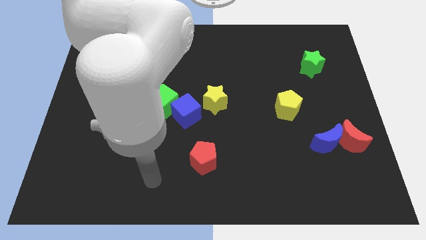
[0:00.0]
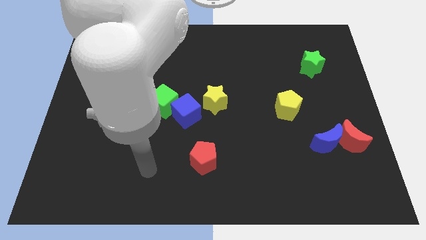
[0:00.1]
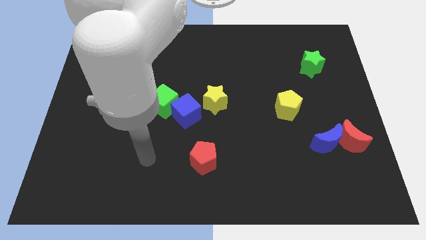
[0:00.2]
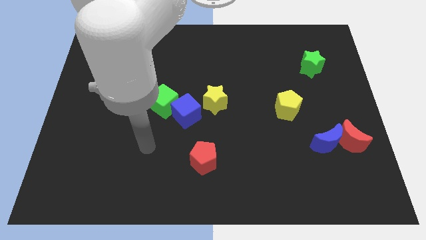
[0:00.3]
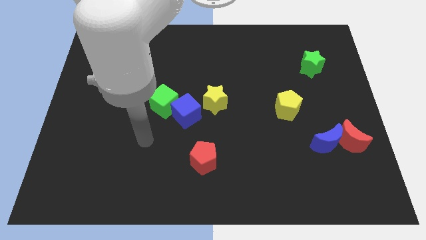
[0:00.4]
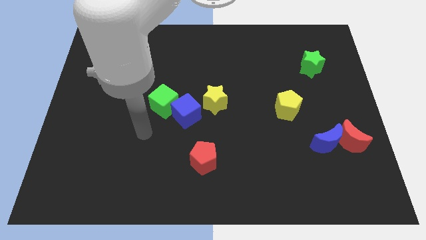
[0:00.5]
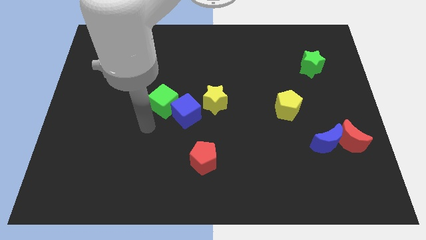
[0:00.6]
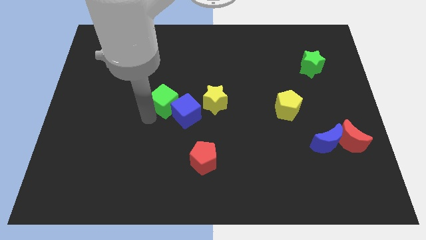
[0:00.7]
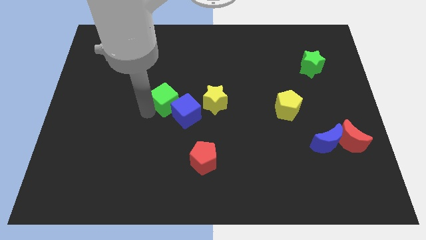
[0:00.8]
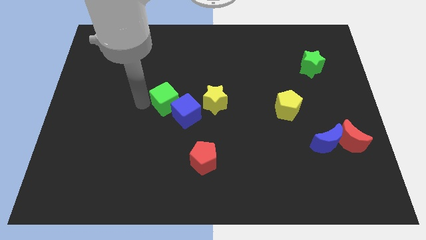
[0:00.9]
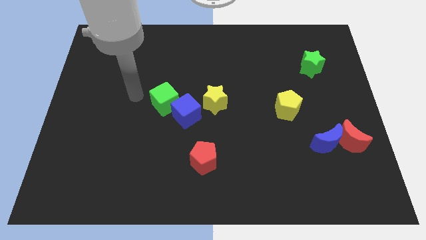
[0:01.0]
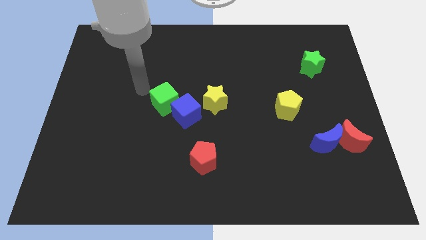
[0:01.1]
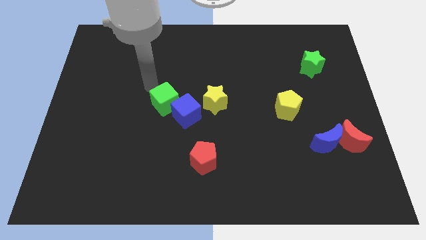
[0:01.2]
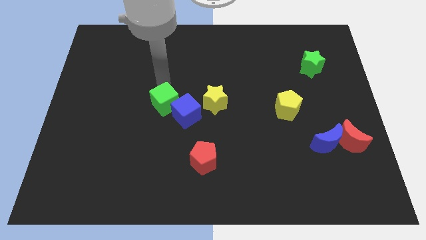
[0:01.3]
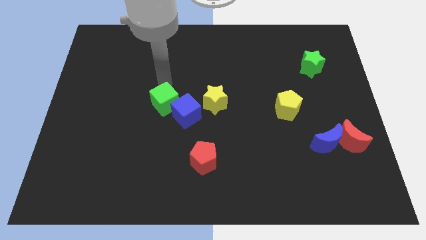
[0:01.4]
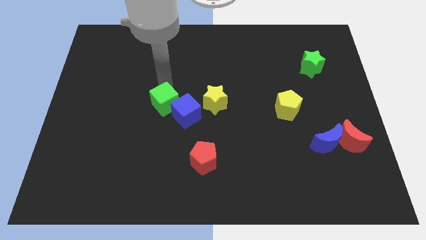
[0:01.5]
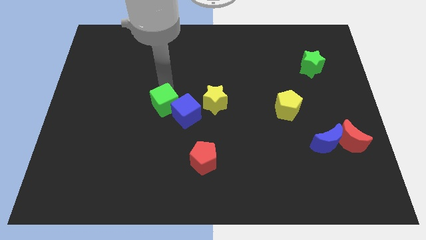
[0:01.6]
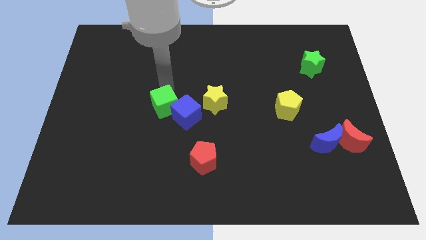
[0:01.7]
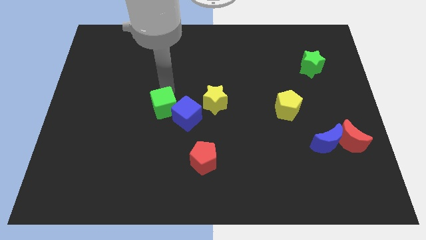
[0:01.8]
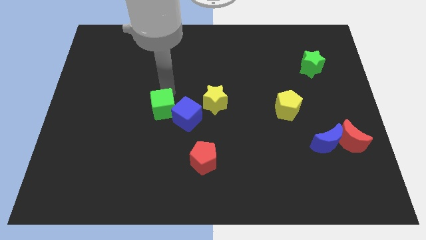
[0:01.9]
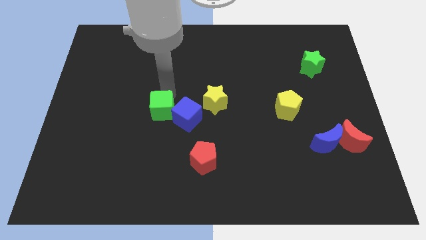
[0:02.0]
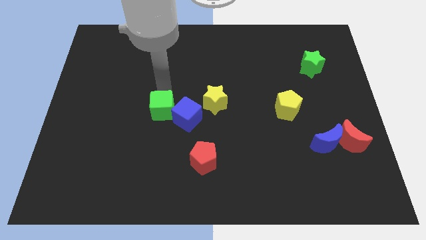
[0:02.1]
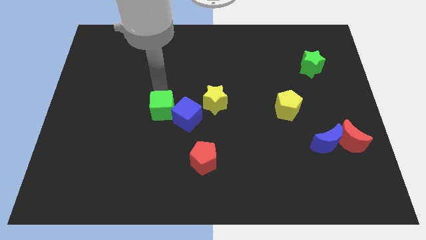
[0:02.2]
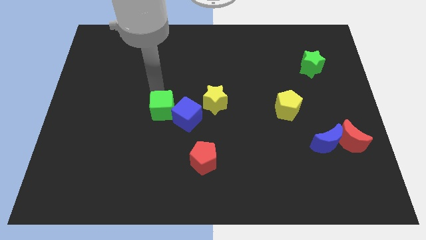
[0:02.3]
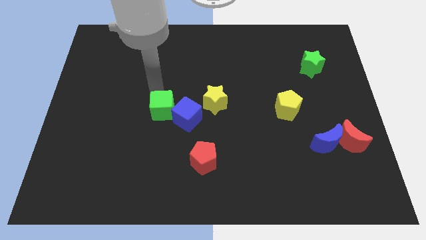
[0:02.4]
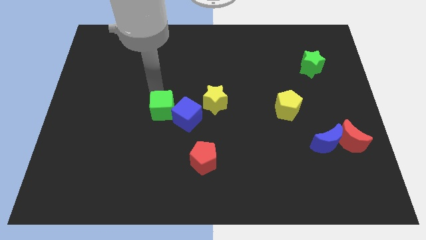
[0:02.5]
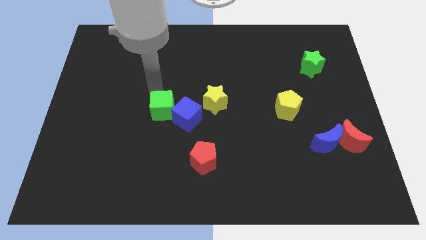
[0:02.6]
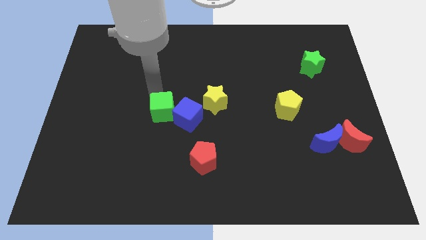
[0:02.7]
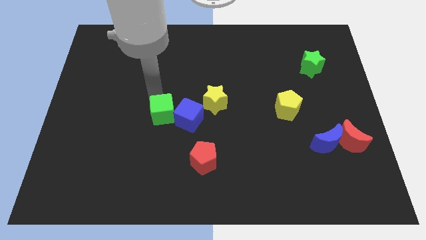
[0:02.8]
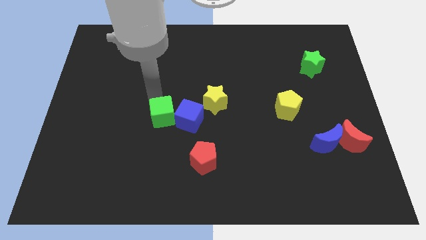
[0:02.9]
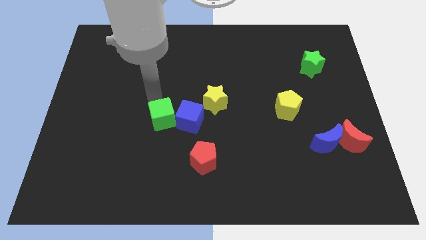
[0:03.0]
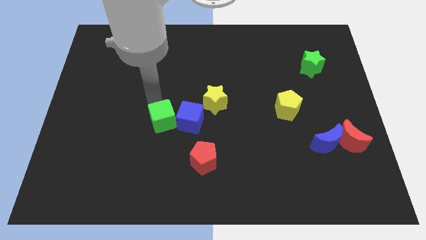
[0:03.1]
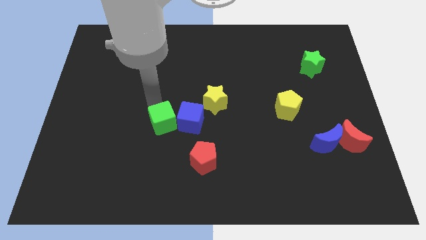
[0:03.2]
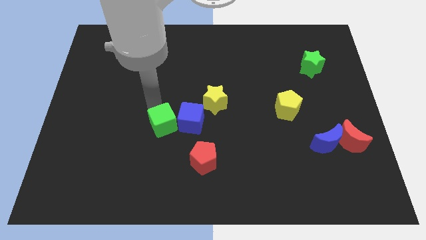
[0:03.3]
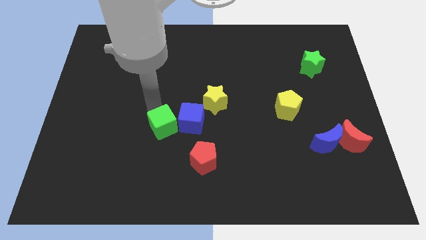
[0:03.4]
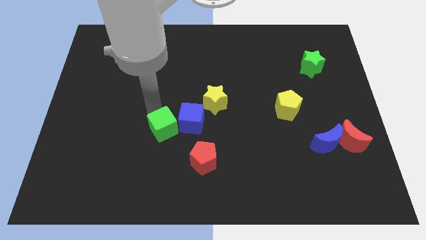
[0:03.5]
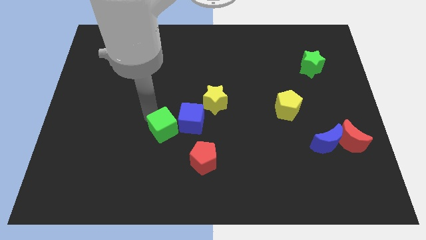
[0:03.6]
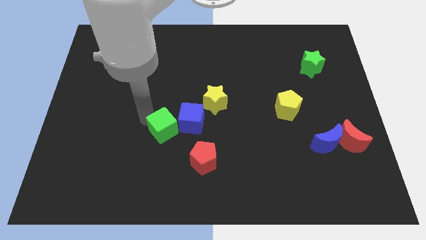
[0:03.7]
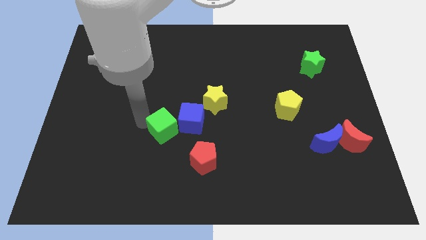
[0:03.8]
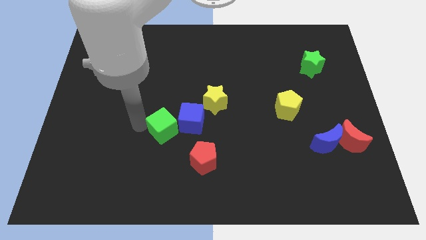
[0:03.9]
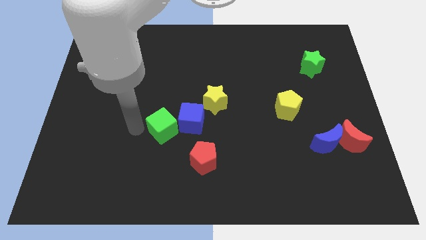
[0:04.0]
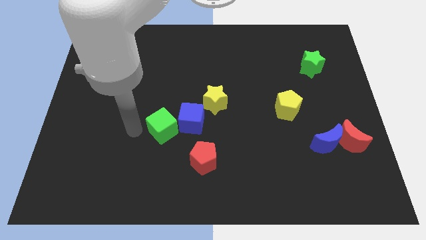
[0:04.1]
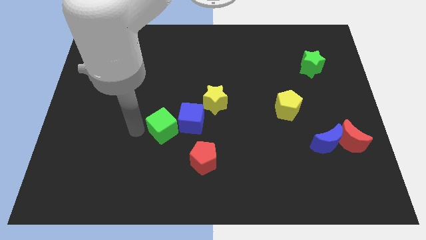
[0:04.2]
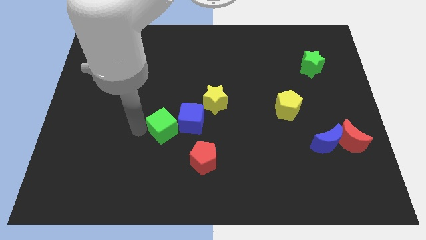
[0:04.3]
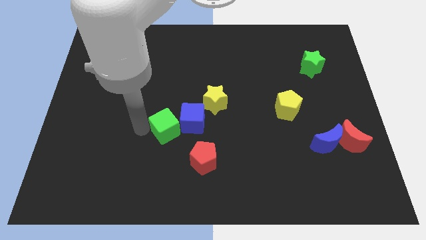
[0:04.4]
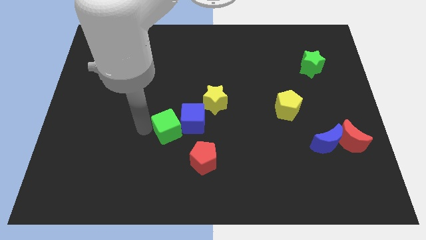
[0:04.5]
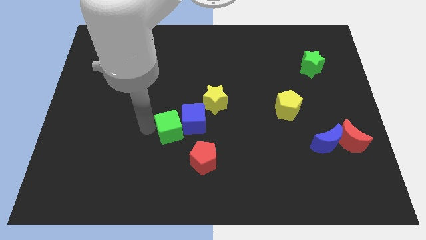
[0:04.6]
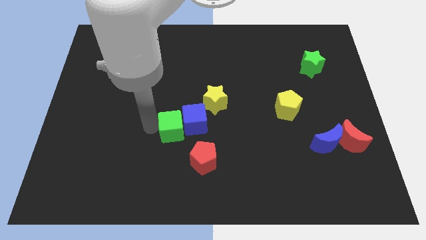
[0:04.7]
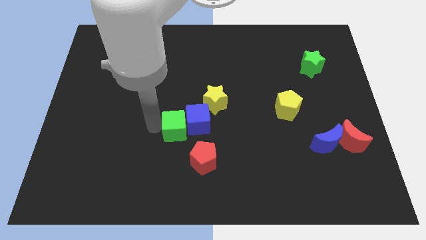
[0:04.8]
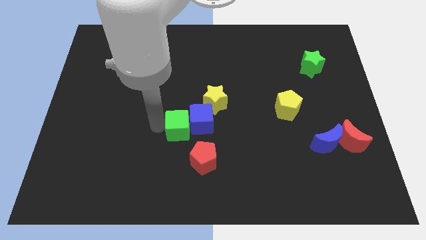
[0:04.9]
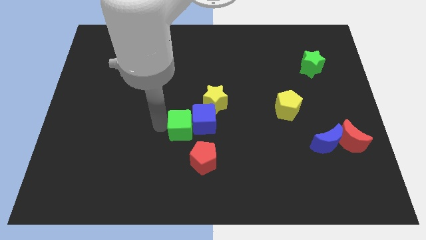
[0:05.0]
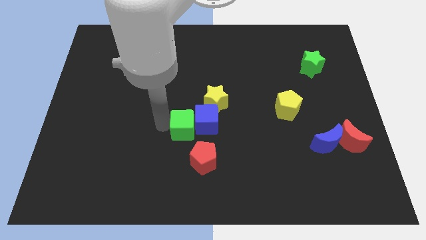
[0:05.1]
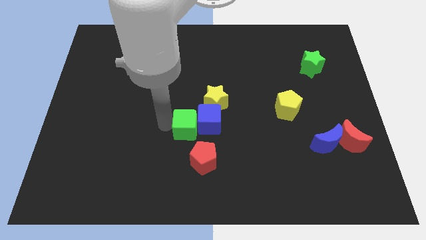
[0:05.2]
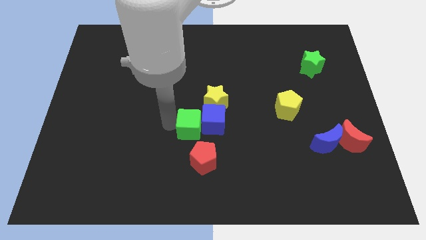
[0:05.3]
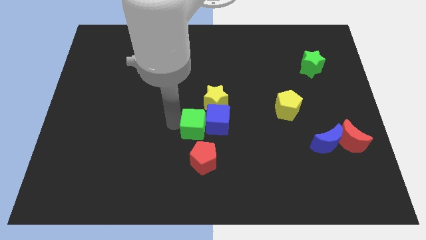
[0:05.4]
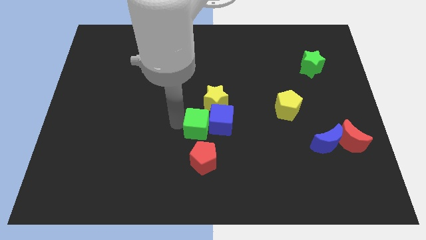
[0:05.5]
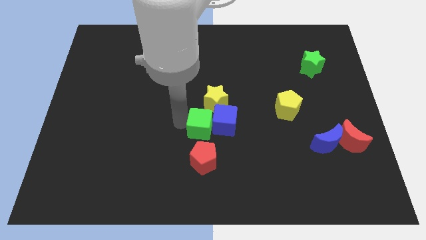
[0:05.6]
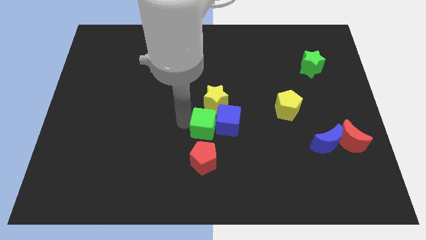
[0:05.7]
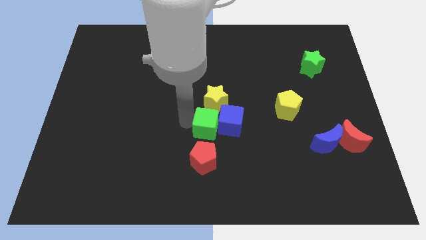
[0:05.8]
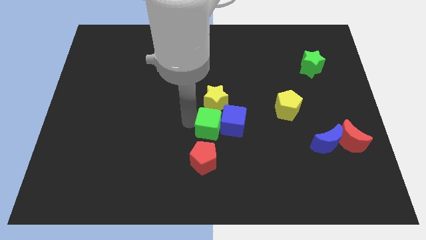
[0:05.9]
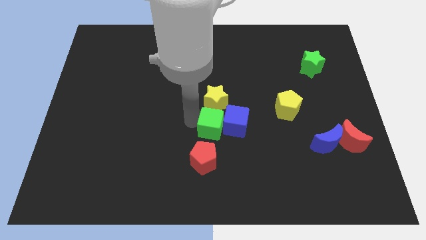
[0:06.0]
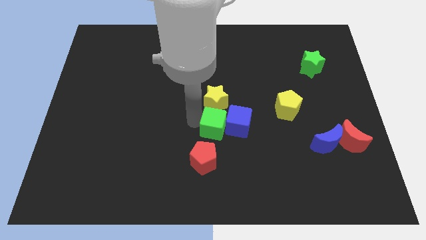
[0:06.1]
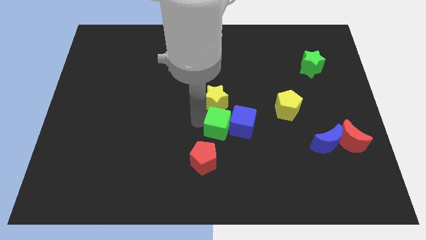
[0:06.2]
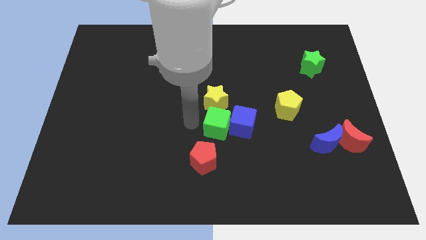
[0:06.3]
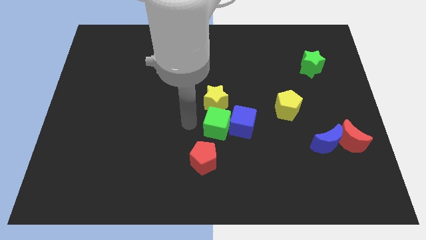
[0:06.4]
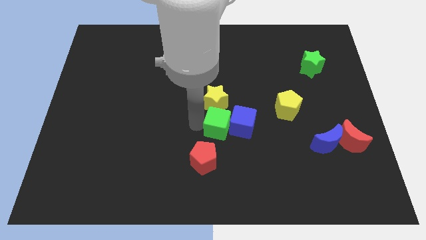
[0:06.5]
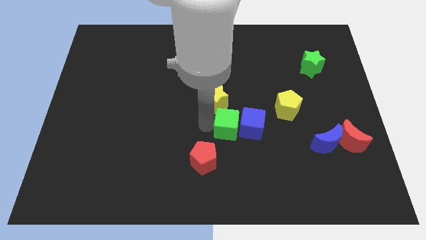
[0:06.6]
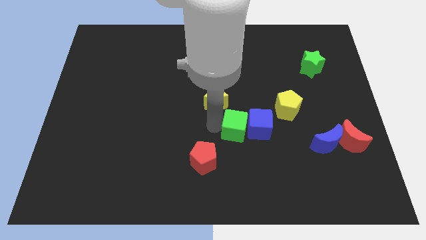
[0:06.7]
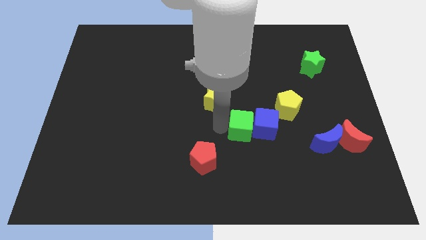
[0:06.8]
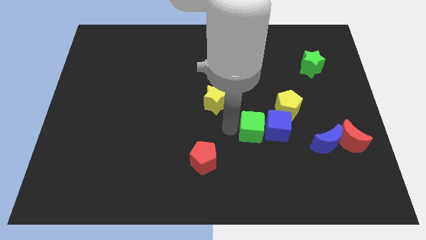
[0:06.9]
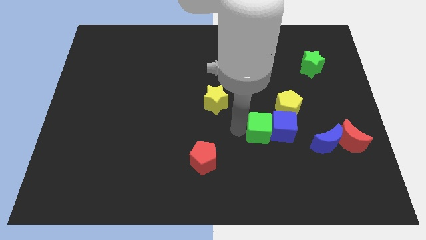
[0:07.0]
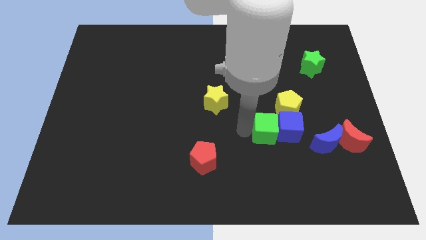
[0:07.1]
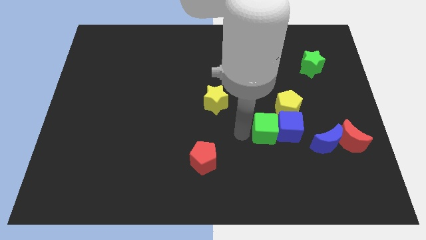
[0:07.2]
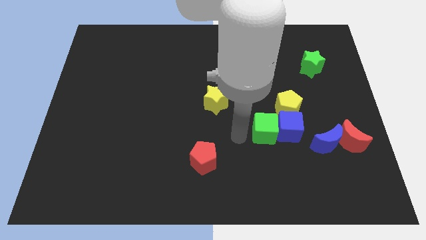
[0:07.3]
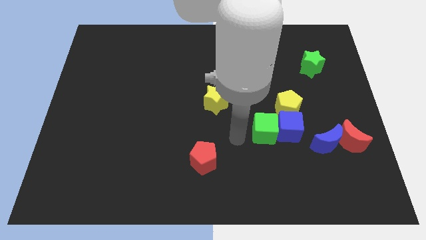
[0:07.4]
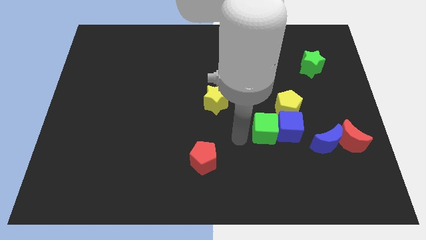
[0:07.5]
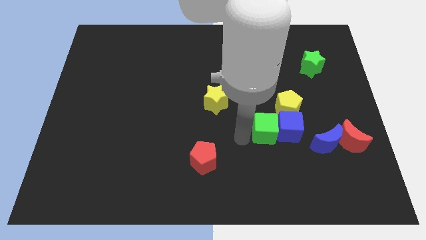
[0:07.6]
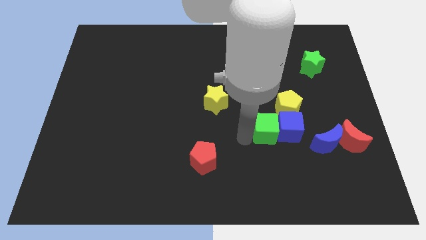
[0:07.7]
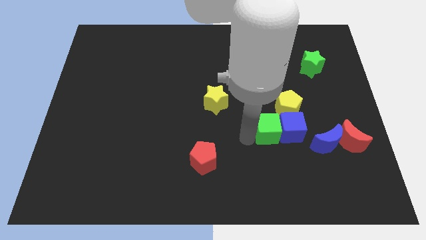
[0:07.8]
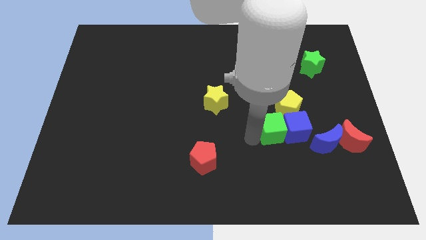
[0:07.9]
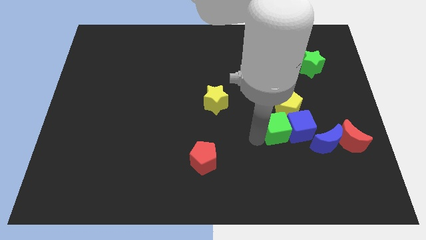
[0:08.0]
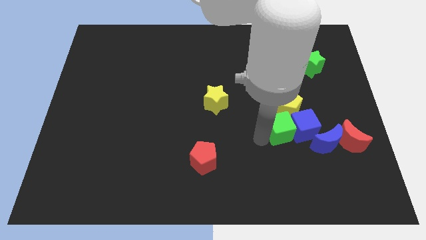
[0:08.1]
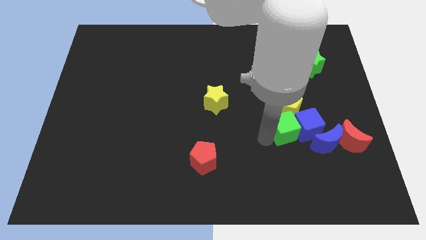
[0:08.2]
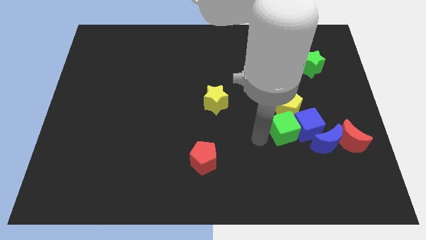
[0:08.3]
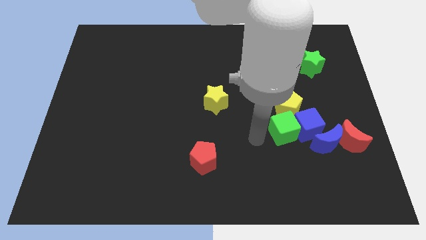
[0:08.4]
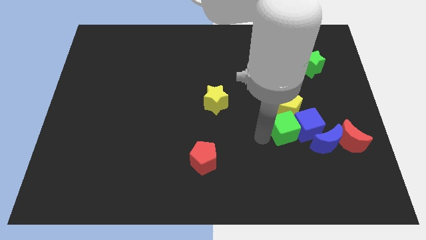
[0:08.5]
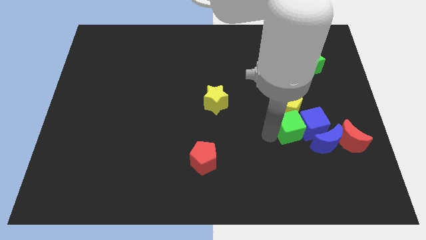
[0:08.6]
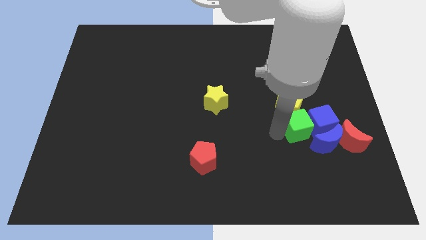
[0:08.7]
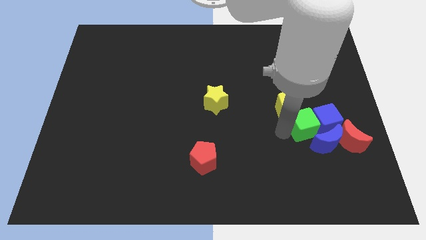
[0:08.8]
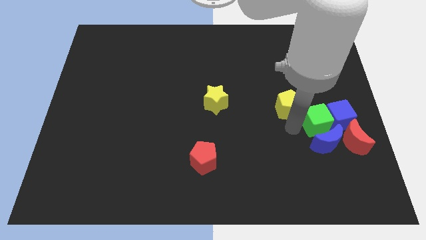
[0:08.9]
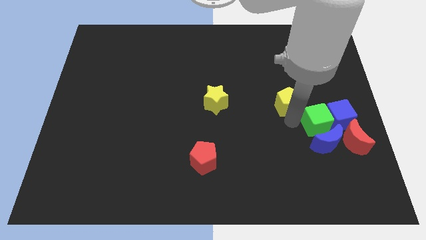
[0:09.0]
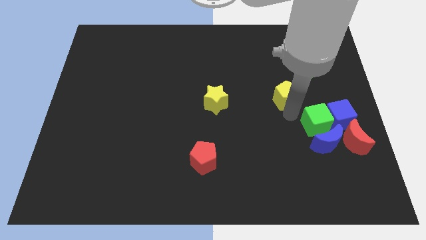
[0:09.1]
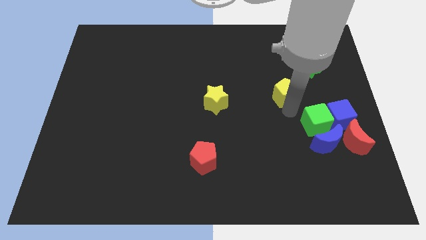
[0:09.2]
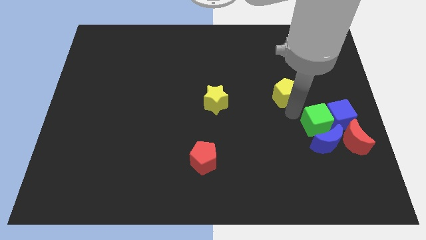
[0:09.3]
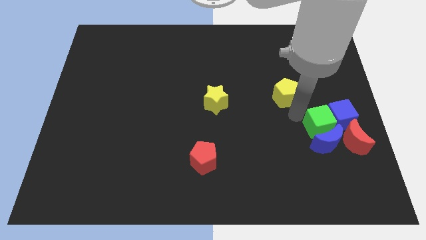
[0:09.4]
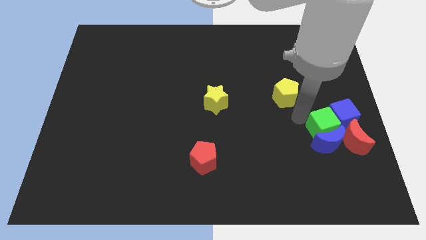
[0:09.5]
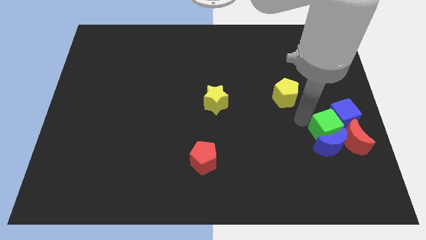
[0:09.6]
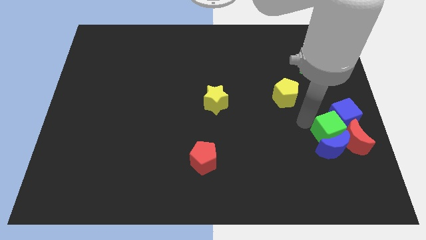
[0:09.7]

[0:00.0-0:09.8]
push the green cube to the red moon
